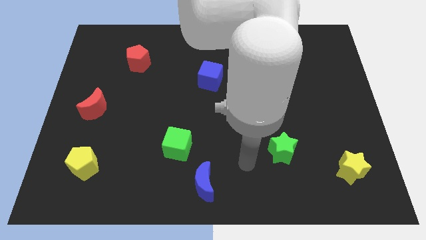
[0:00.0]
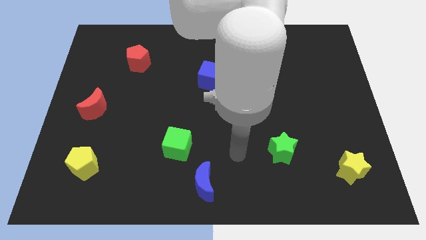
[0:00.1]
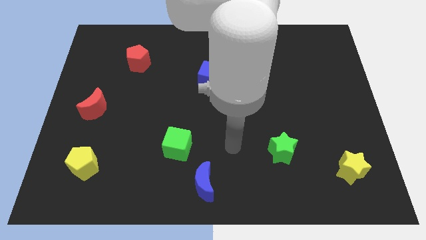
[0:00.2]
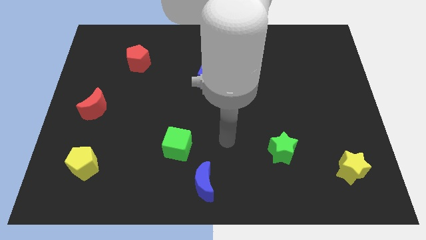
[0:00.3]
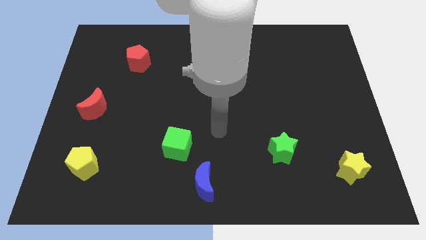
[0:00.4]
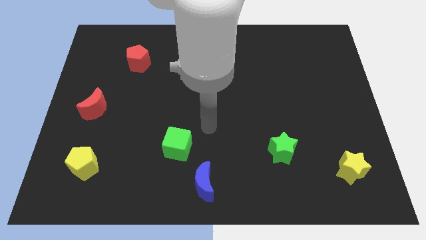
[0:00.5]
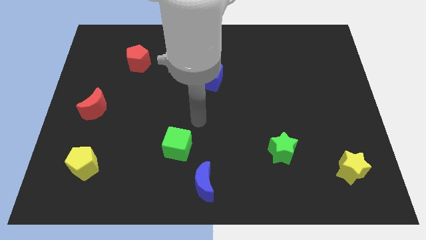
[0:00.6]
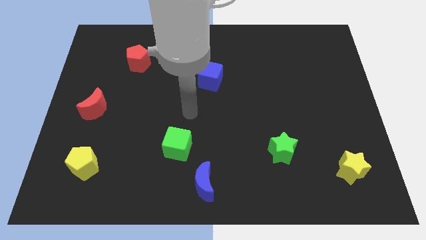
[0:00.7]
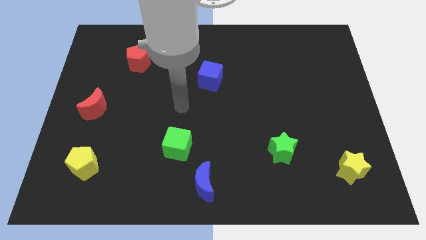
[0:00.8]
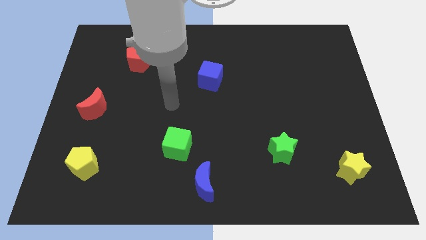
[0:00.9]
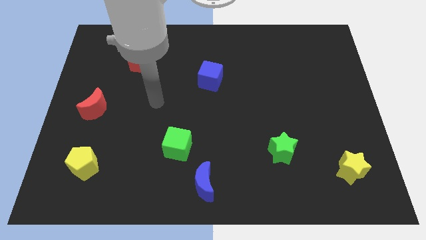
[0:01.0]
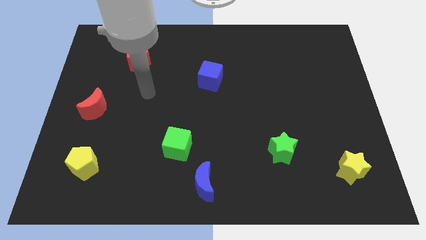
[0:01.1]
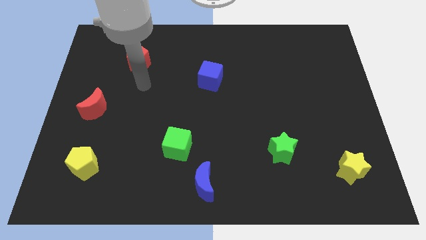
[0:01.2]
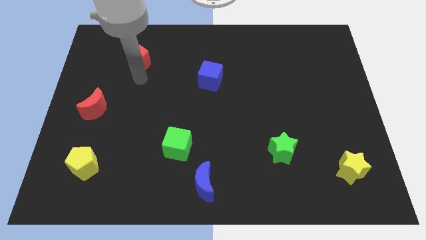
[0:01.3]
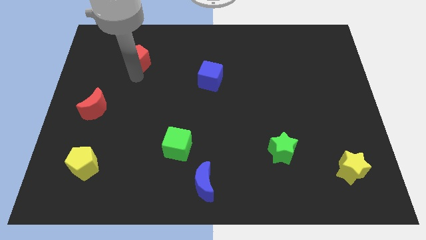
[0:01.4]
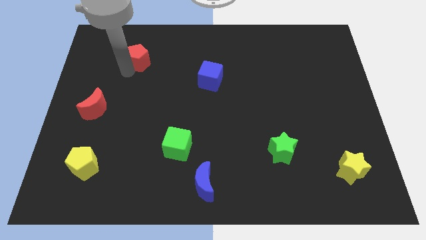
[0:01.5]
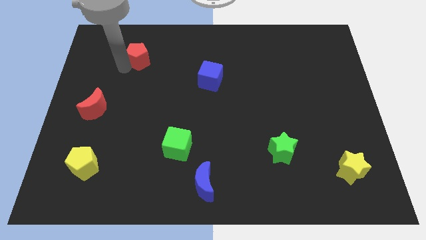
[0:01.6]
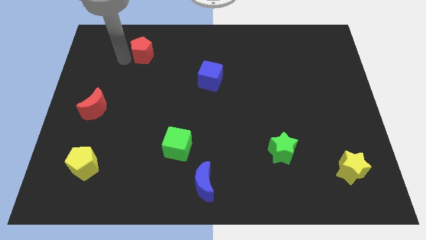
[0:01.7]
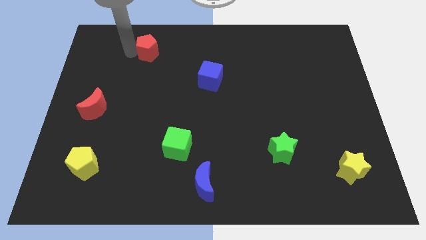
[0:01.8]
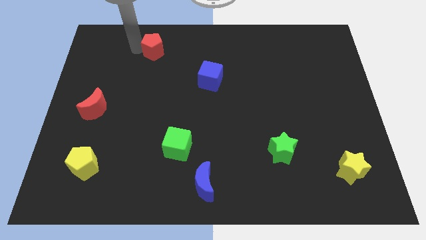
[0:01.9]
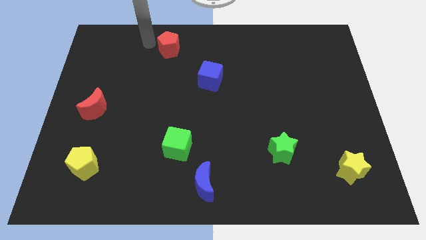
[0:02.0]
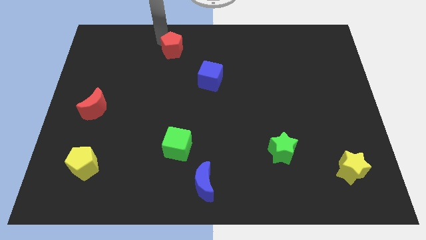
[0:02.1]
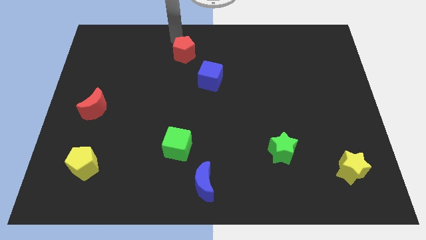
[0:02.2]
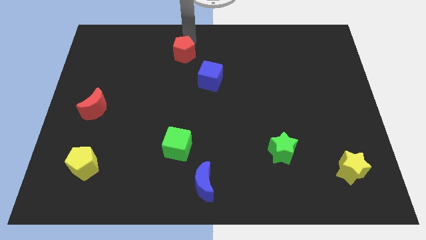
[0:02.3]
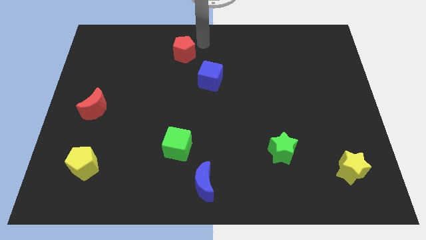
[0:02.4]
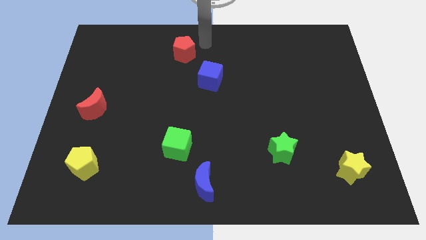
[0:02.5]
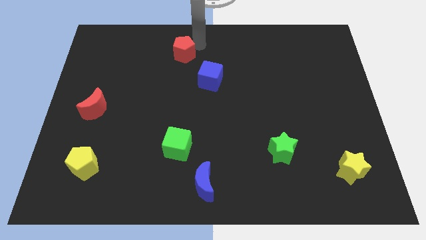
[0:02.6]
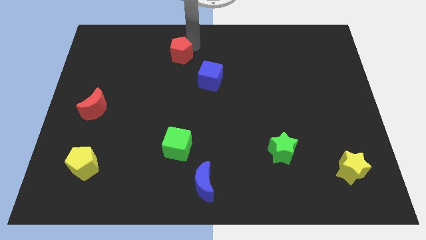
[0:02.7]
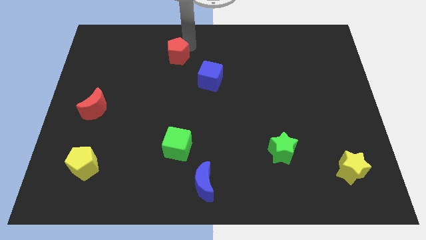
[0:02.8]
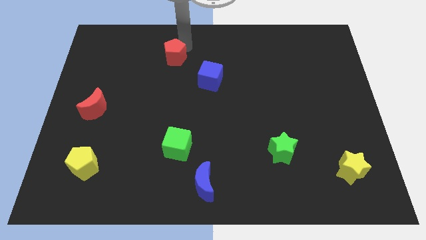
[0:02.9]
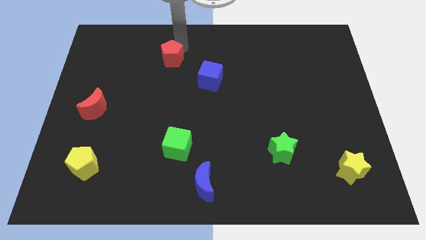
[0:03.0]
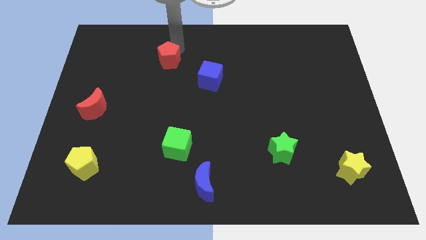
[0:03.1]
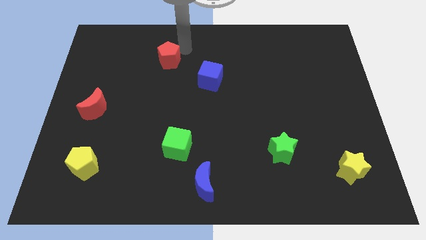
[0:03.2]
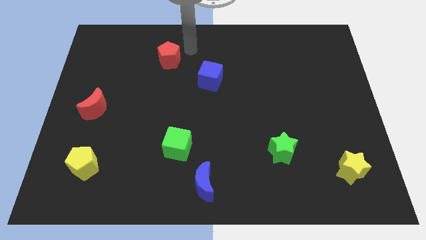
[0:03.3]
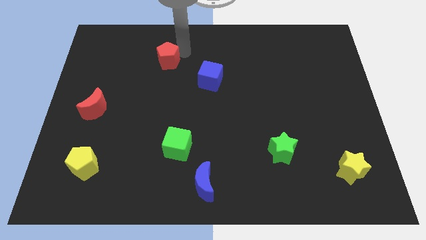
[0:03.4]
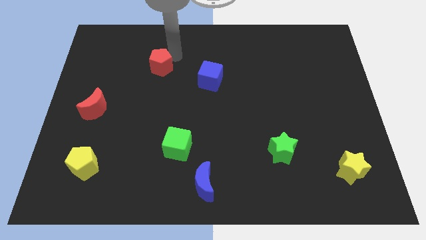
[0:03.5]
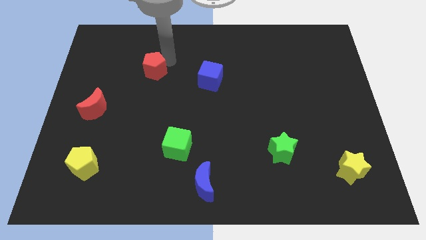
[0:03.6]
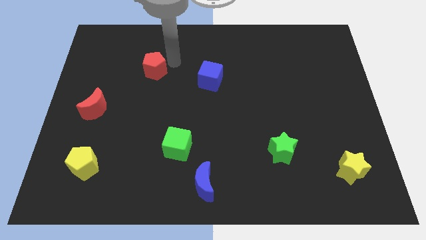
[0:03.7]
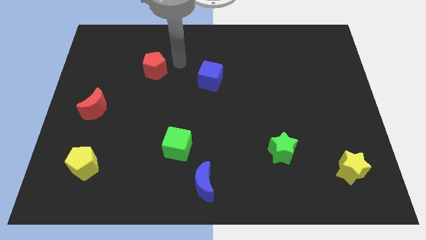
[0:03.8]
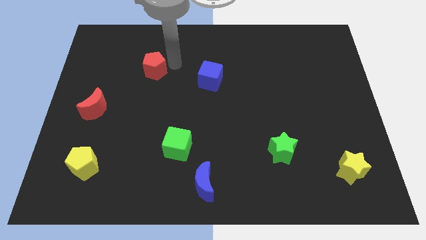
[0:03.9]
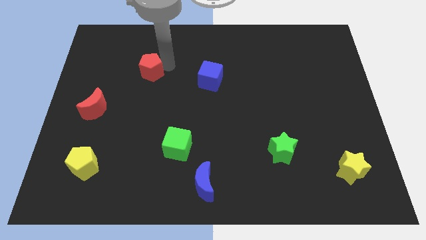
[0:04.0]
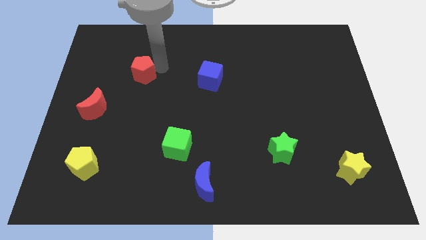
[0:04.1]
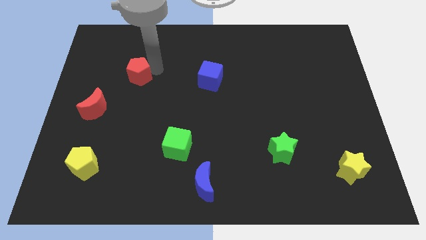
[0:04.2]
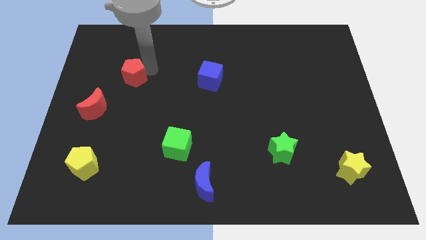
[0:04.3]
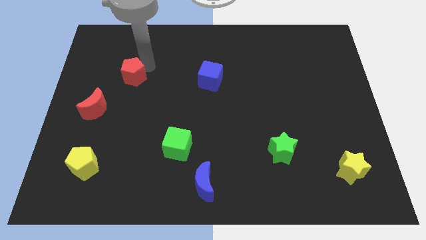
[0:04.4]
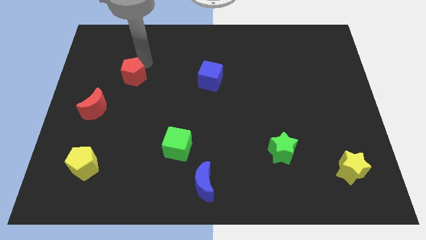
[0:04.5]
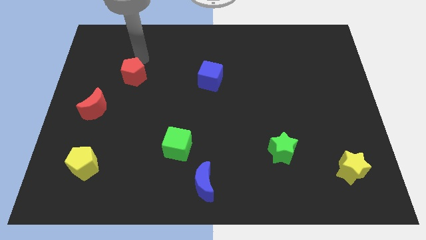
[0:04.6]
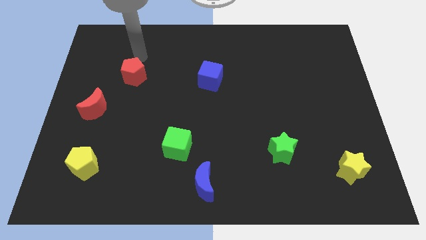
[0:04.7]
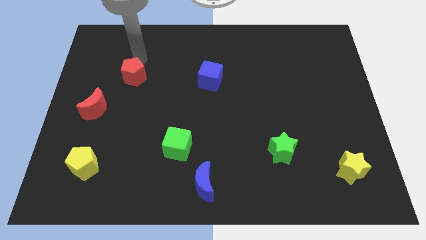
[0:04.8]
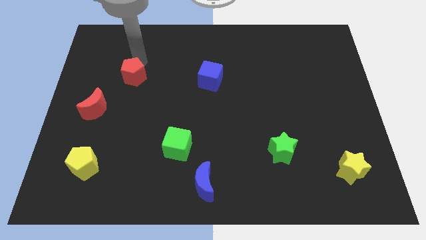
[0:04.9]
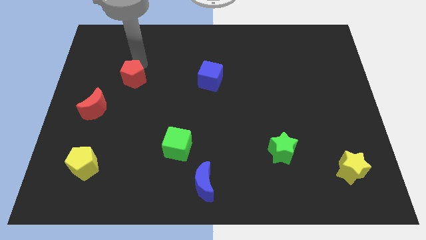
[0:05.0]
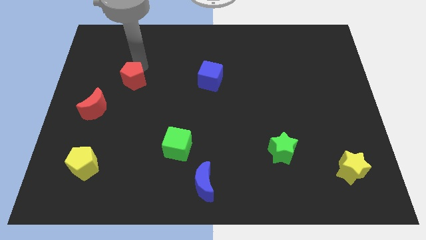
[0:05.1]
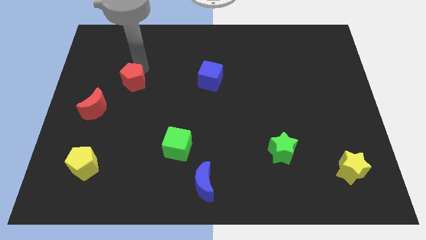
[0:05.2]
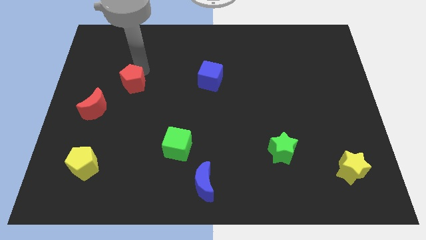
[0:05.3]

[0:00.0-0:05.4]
slide the red pentagon a bit downwards

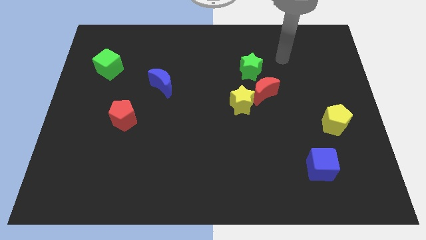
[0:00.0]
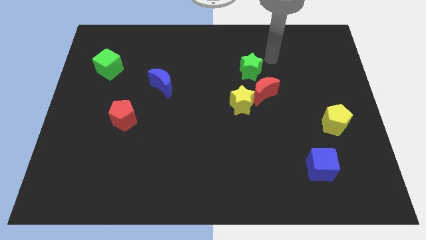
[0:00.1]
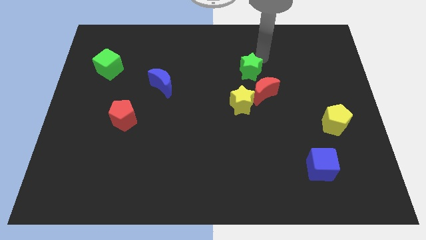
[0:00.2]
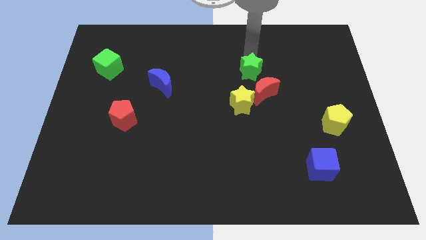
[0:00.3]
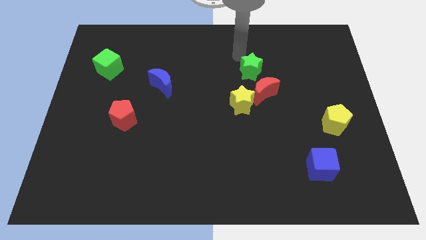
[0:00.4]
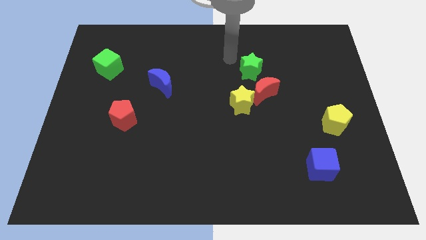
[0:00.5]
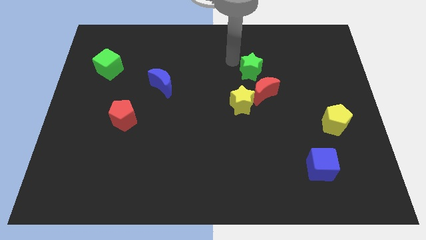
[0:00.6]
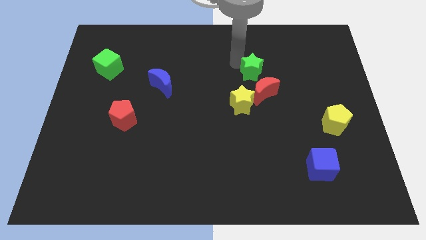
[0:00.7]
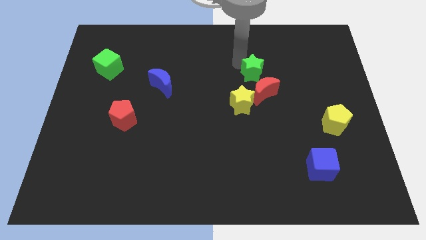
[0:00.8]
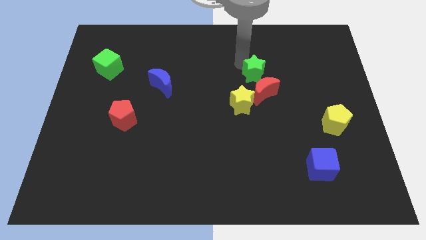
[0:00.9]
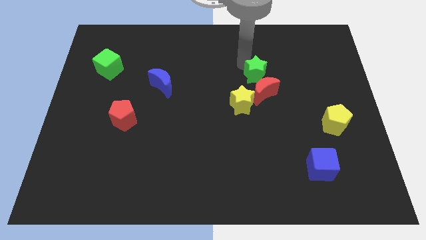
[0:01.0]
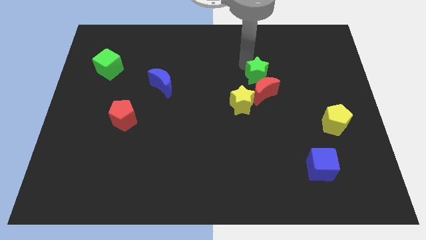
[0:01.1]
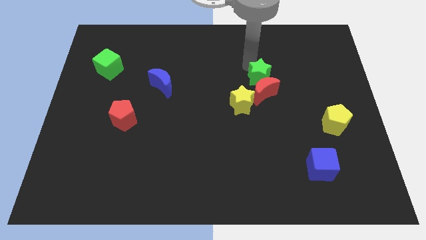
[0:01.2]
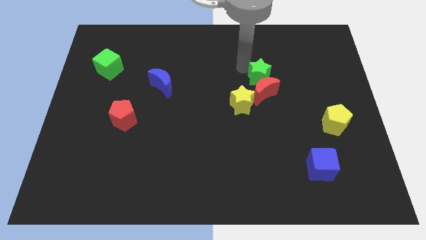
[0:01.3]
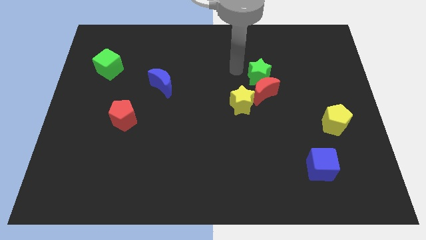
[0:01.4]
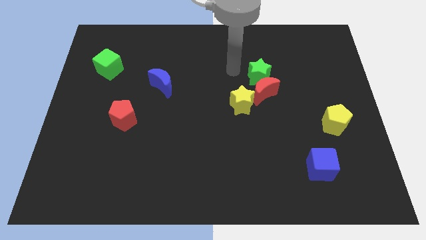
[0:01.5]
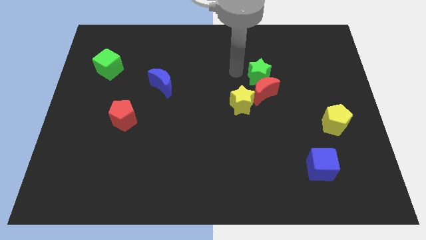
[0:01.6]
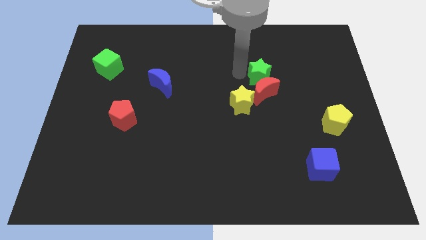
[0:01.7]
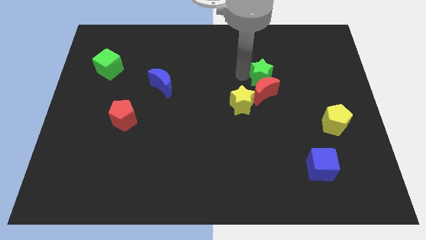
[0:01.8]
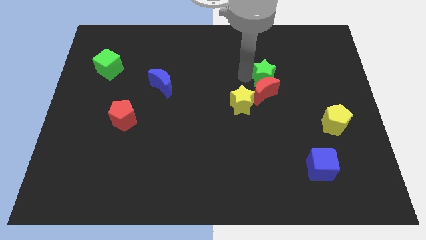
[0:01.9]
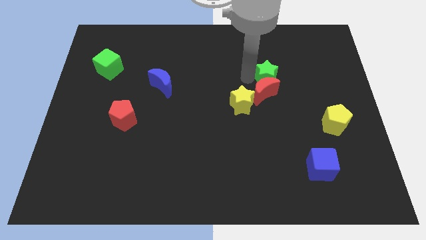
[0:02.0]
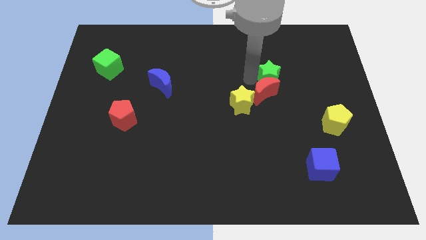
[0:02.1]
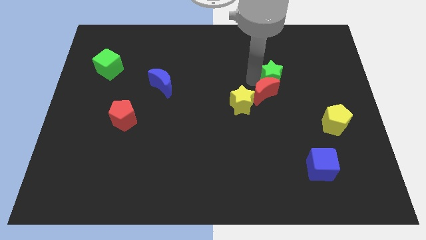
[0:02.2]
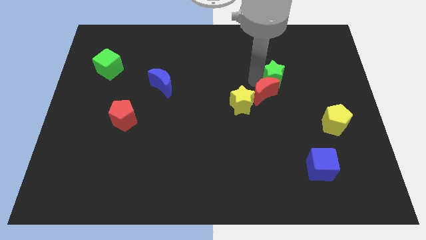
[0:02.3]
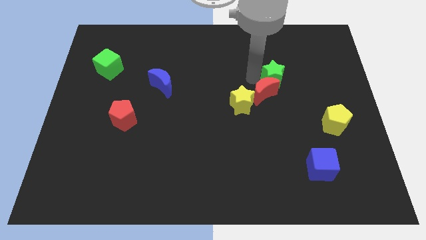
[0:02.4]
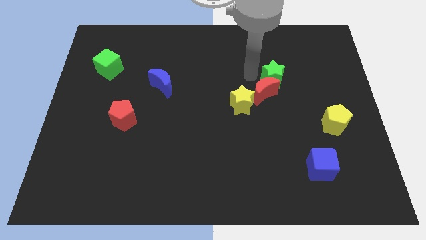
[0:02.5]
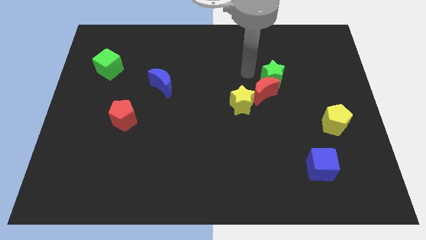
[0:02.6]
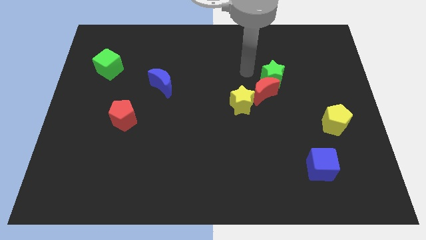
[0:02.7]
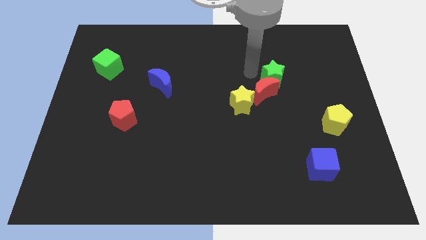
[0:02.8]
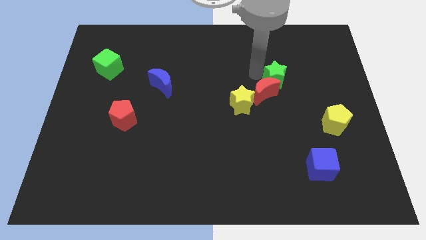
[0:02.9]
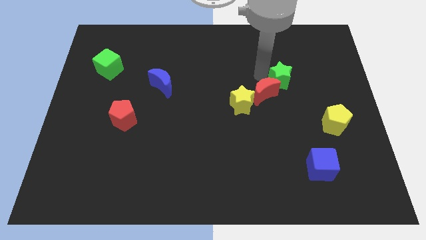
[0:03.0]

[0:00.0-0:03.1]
slightly move the green star diagonally downwards and right
